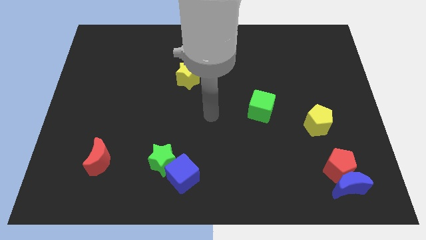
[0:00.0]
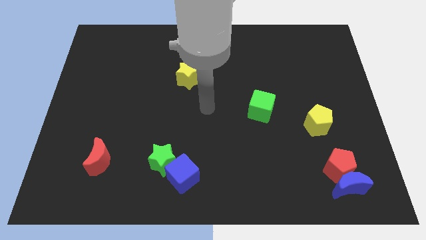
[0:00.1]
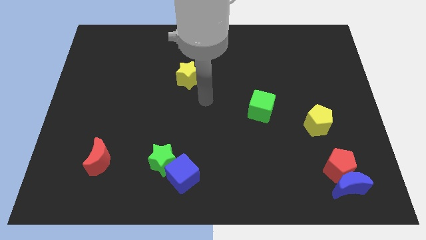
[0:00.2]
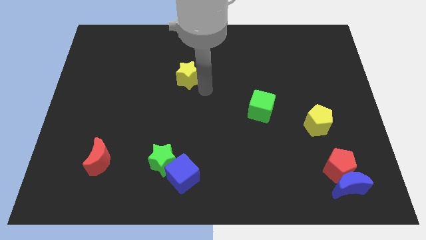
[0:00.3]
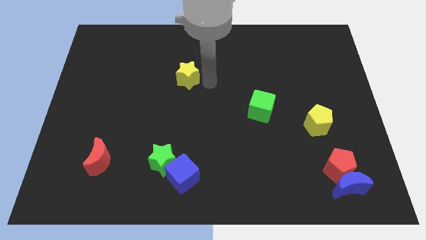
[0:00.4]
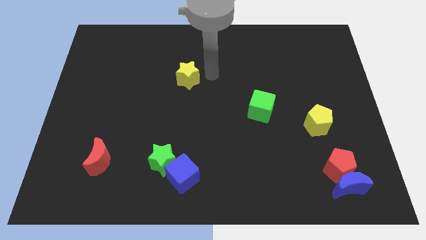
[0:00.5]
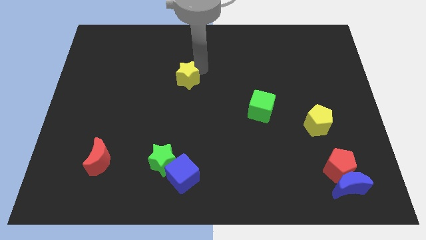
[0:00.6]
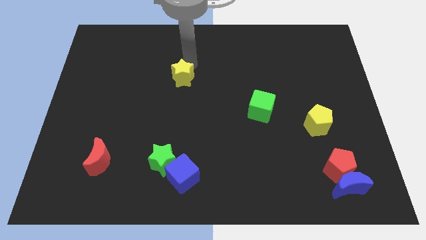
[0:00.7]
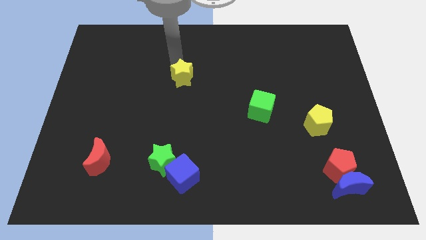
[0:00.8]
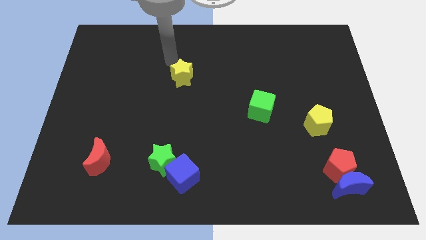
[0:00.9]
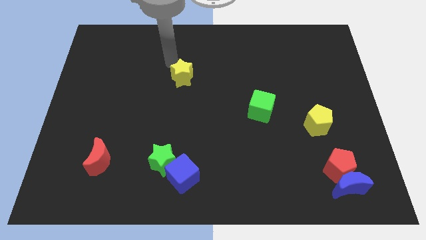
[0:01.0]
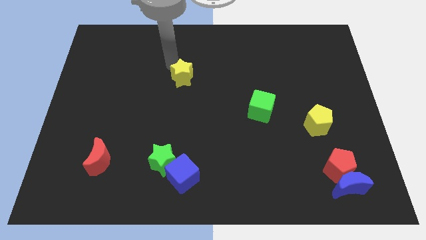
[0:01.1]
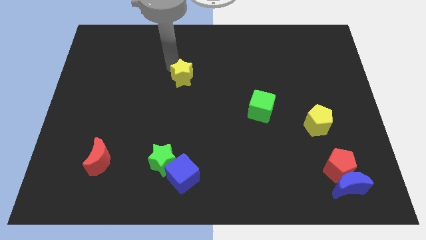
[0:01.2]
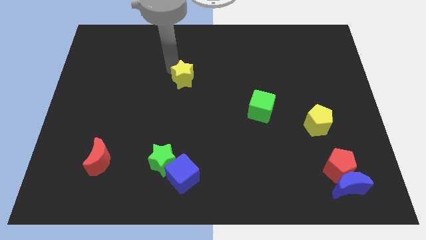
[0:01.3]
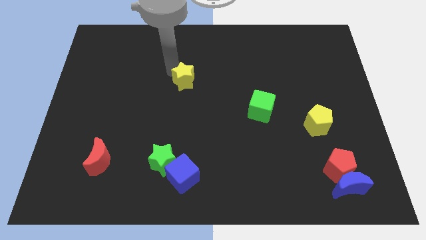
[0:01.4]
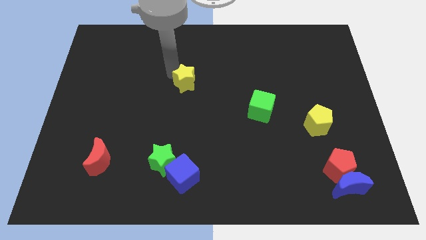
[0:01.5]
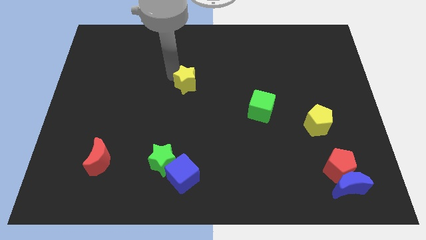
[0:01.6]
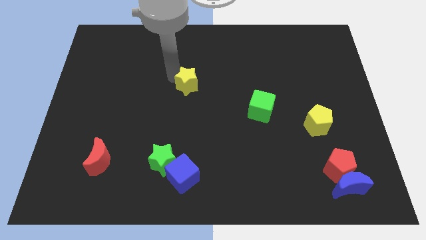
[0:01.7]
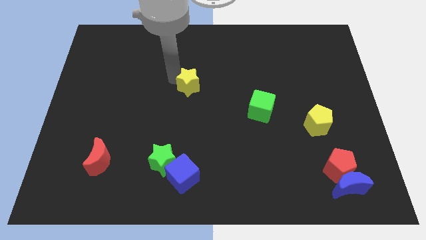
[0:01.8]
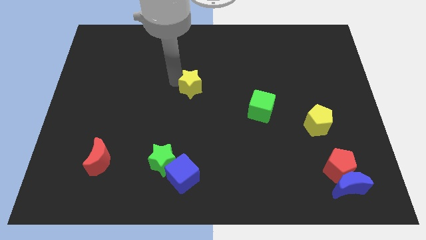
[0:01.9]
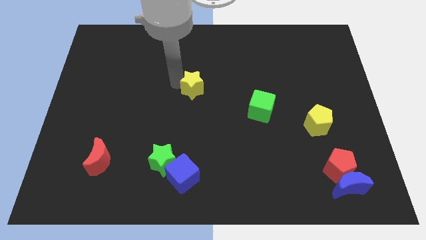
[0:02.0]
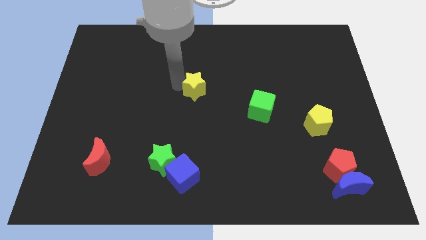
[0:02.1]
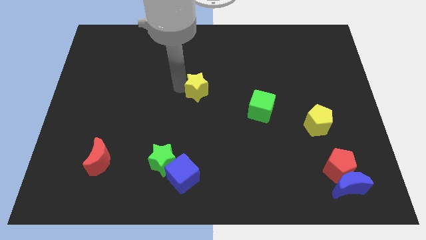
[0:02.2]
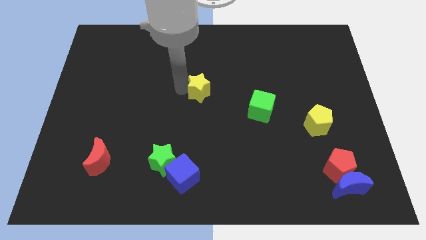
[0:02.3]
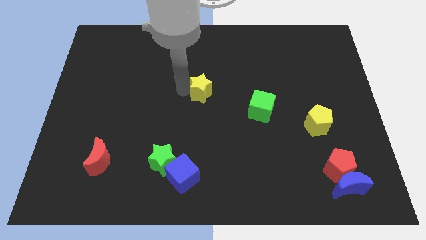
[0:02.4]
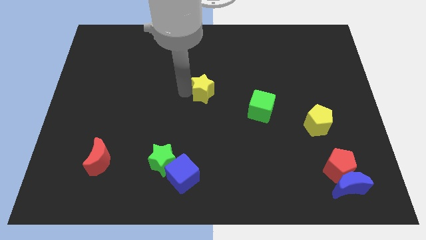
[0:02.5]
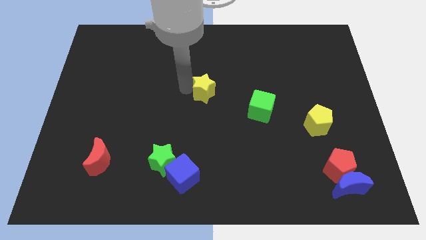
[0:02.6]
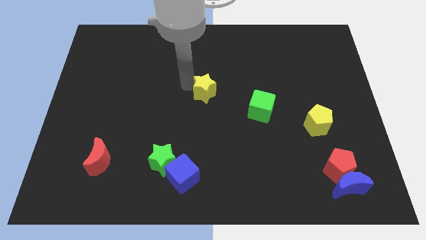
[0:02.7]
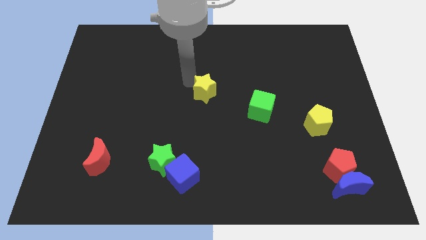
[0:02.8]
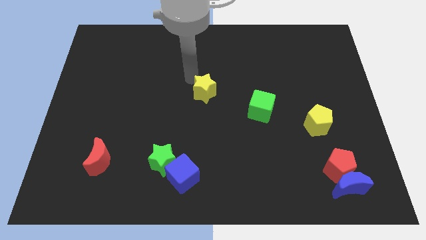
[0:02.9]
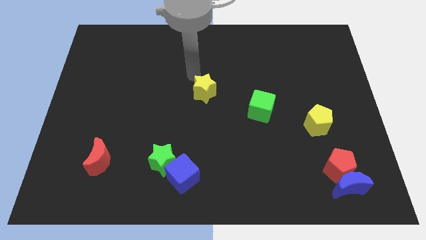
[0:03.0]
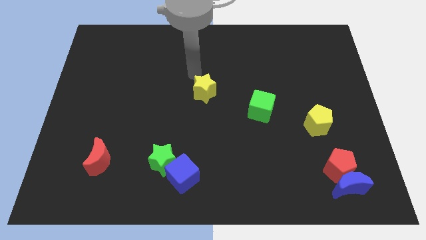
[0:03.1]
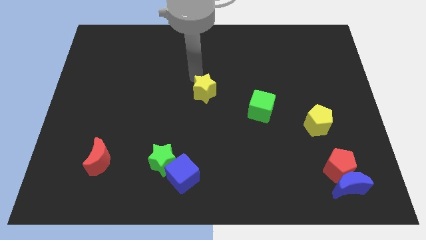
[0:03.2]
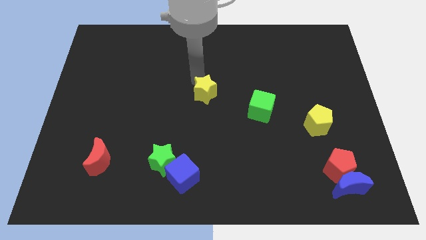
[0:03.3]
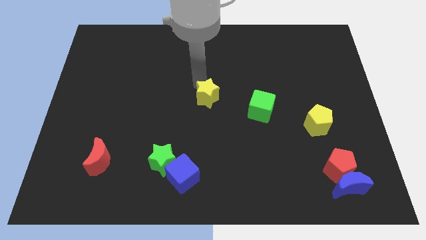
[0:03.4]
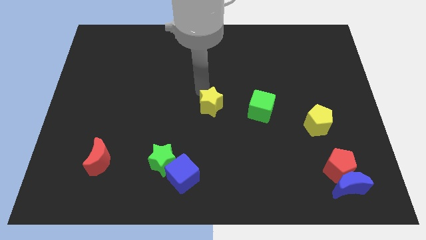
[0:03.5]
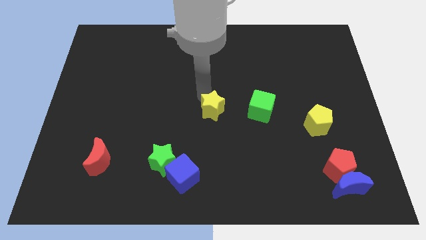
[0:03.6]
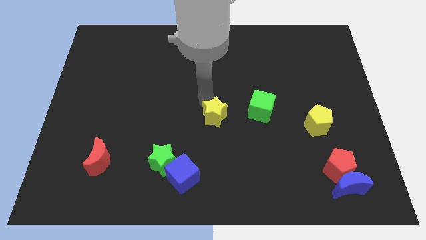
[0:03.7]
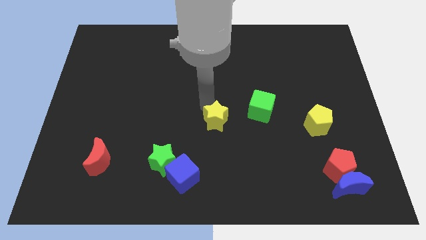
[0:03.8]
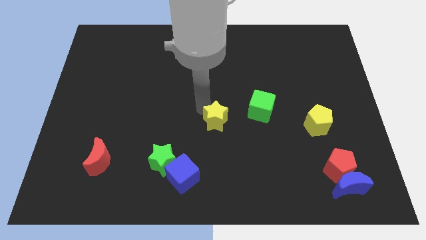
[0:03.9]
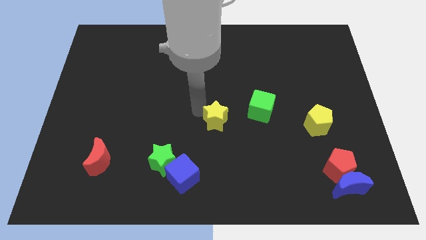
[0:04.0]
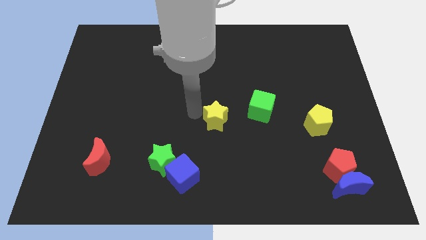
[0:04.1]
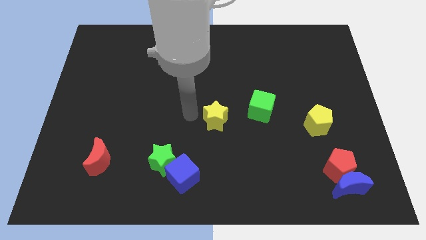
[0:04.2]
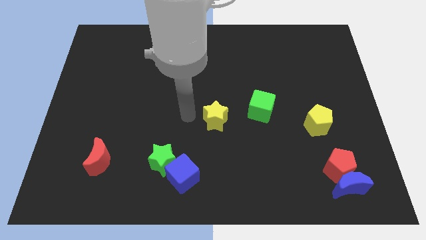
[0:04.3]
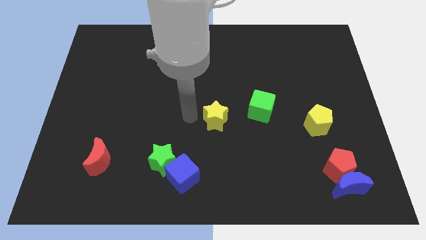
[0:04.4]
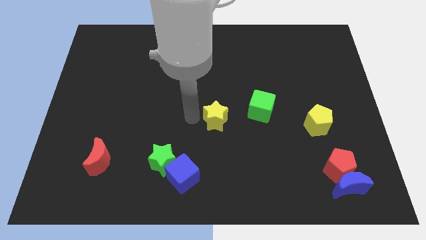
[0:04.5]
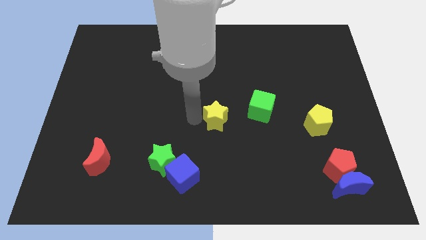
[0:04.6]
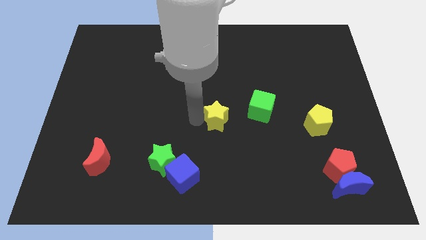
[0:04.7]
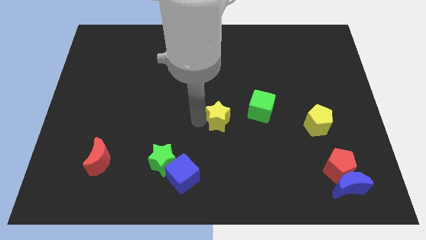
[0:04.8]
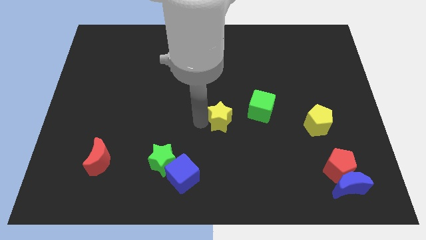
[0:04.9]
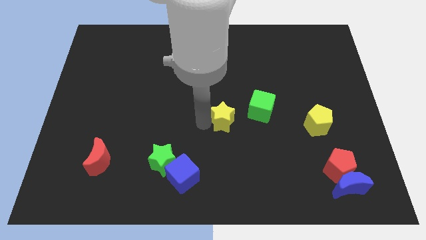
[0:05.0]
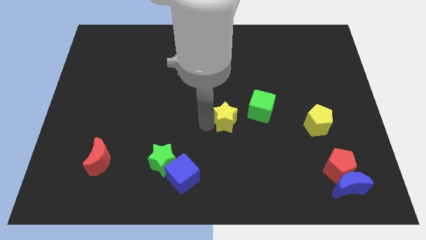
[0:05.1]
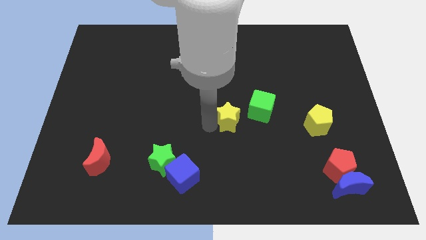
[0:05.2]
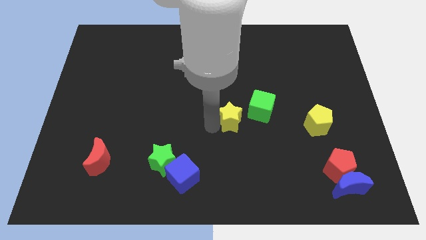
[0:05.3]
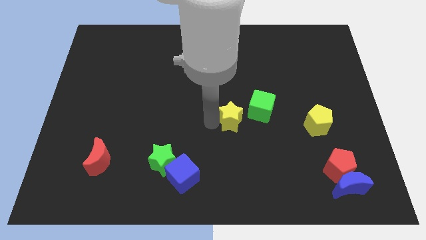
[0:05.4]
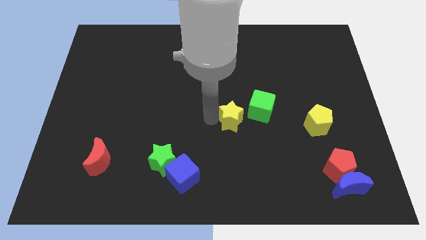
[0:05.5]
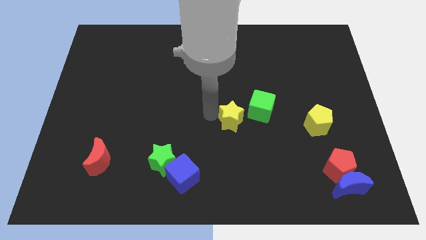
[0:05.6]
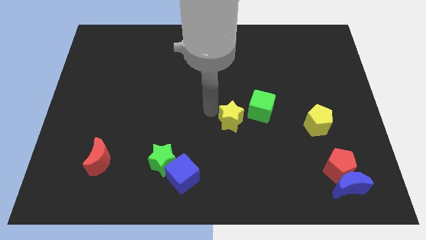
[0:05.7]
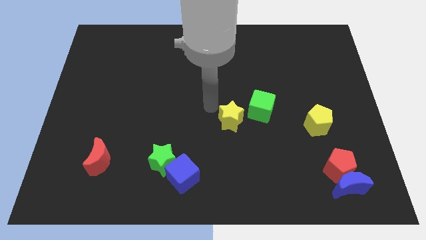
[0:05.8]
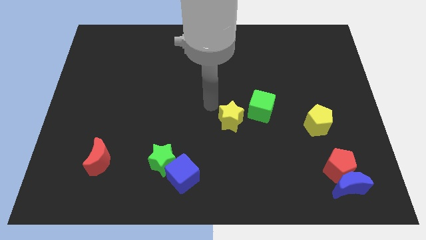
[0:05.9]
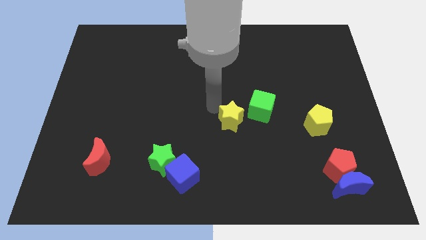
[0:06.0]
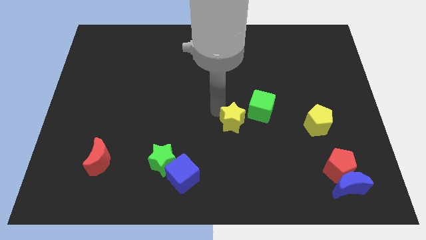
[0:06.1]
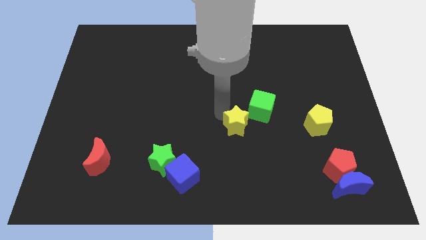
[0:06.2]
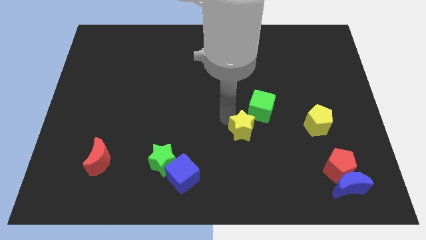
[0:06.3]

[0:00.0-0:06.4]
move the yellow star downwards and then right

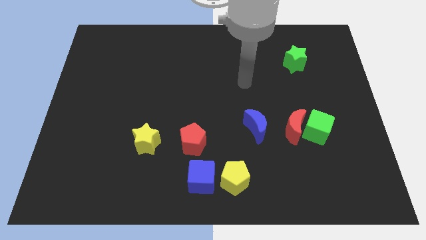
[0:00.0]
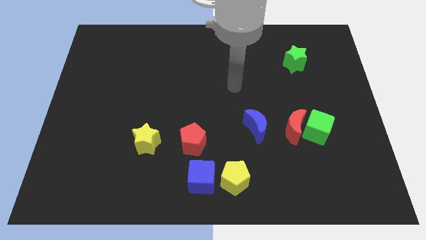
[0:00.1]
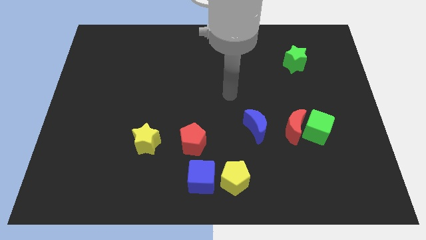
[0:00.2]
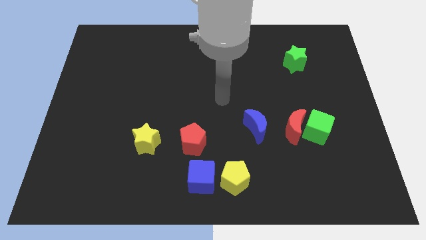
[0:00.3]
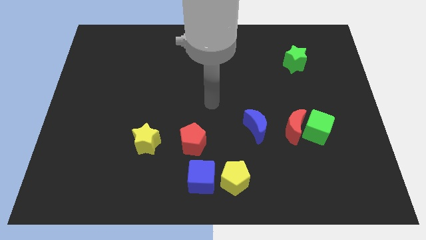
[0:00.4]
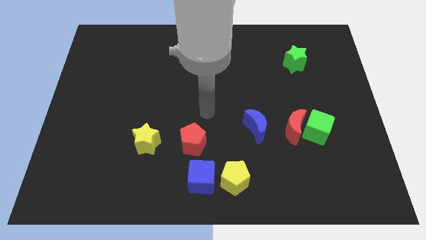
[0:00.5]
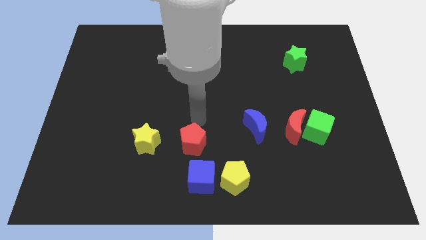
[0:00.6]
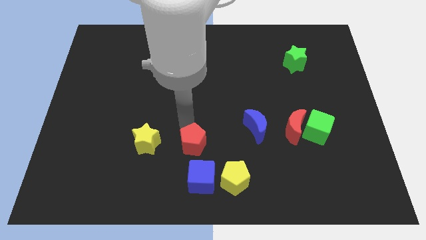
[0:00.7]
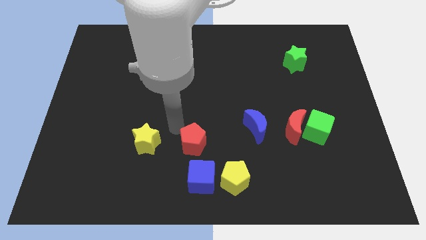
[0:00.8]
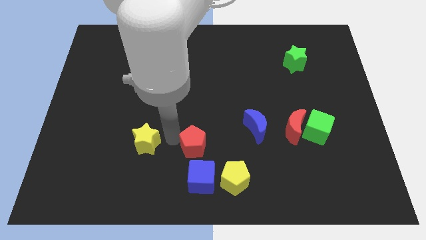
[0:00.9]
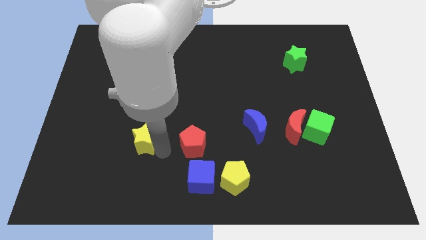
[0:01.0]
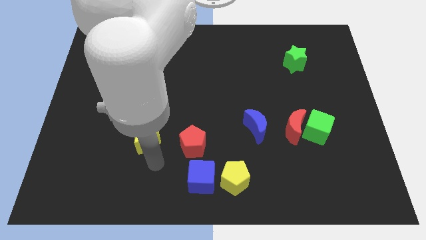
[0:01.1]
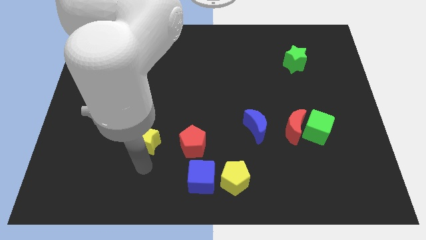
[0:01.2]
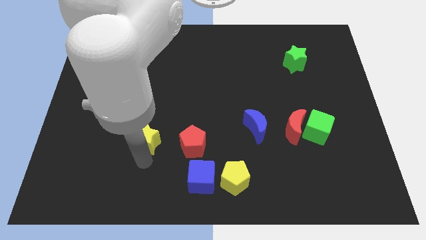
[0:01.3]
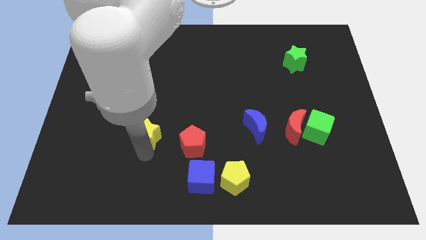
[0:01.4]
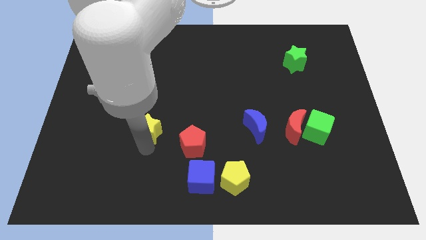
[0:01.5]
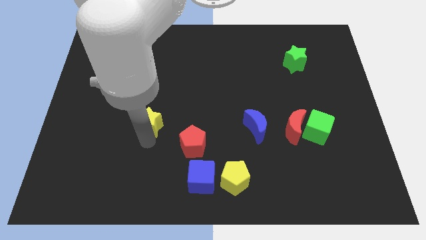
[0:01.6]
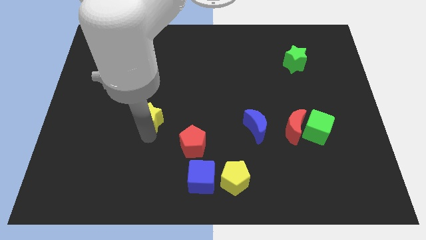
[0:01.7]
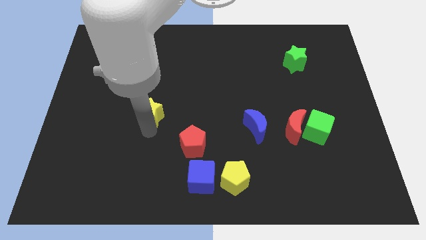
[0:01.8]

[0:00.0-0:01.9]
move the yellow star upwards a little bit
